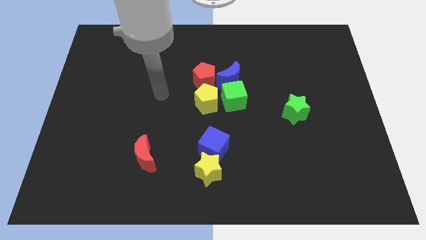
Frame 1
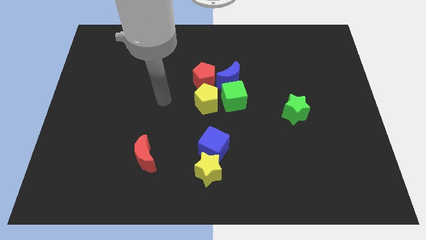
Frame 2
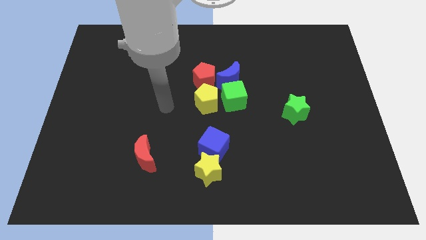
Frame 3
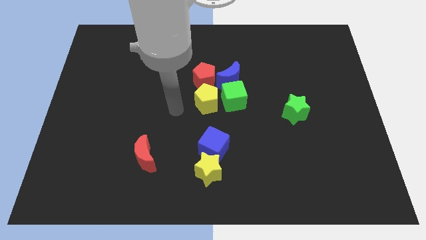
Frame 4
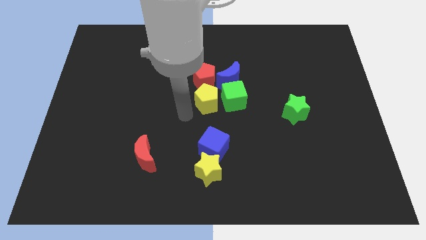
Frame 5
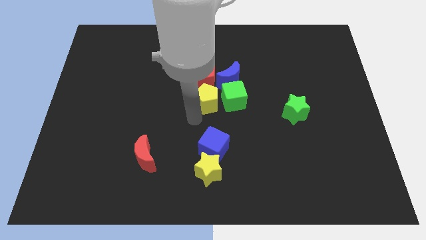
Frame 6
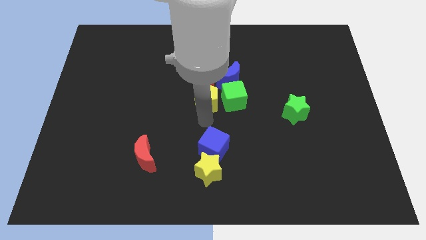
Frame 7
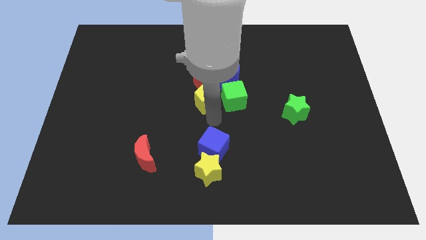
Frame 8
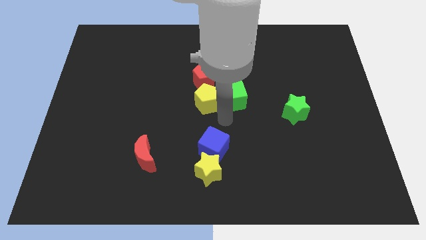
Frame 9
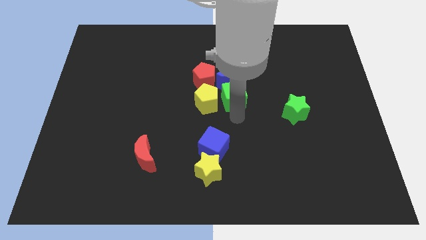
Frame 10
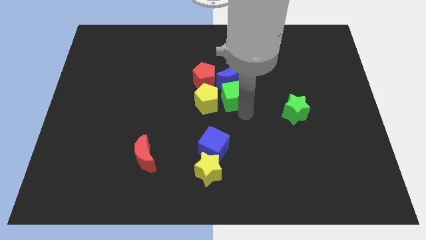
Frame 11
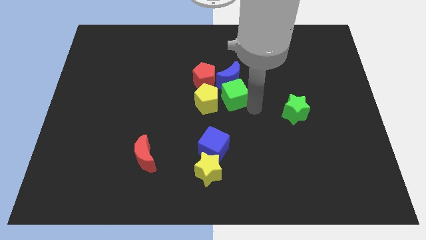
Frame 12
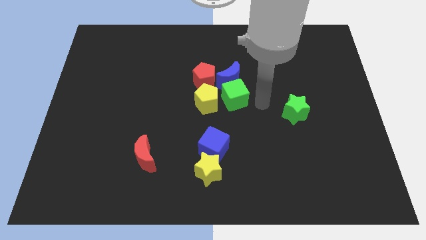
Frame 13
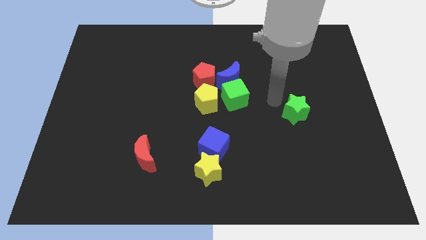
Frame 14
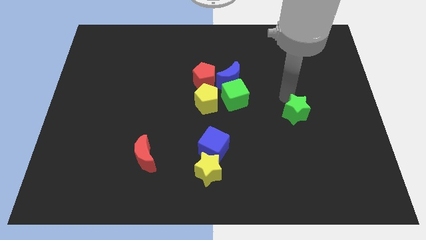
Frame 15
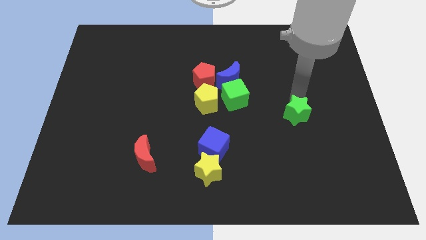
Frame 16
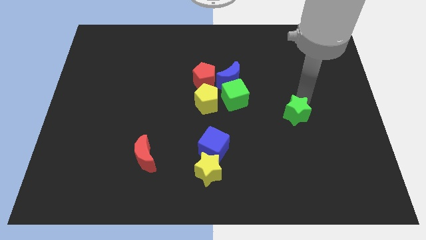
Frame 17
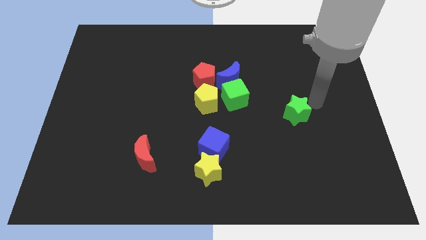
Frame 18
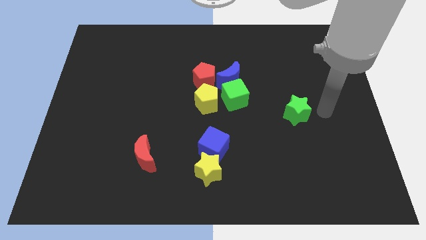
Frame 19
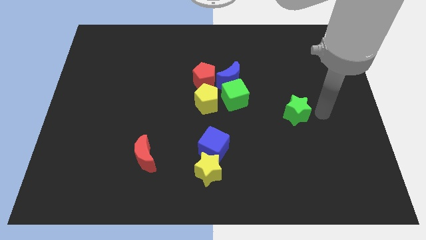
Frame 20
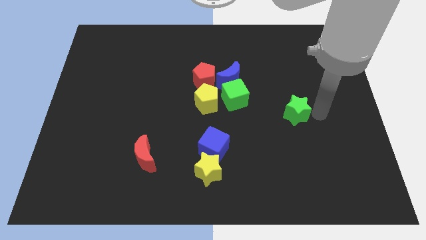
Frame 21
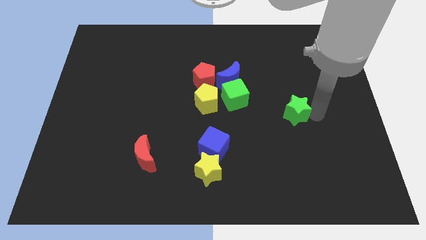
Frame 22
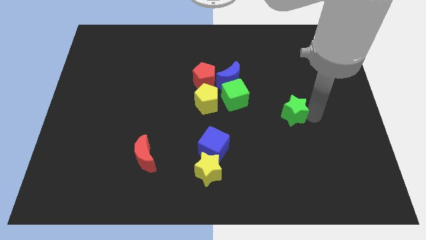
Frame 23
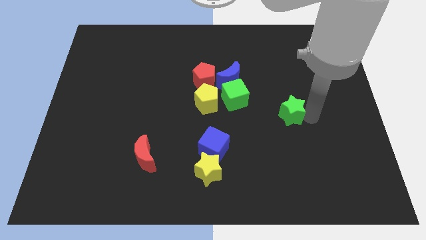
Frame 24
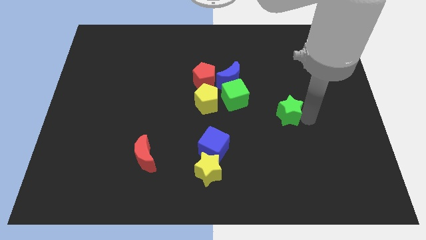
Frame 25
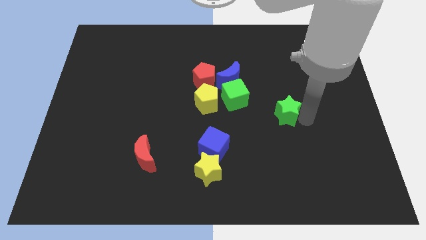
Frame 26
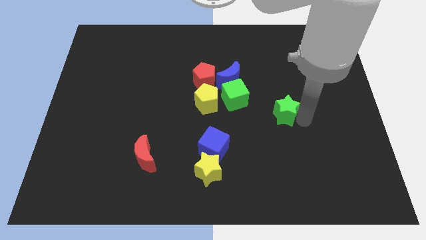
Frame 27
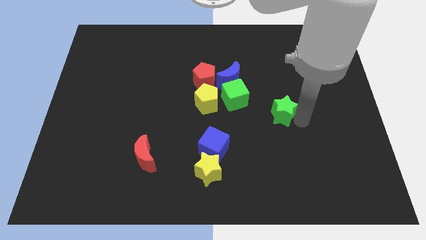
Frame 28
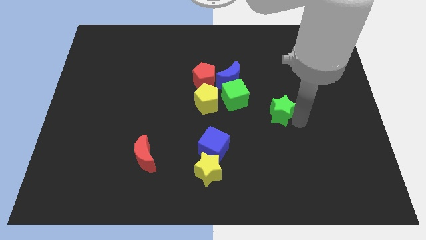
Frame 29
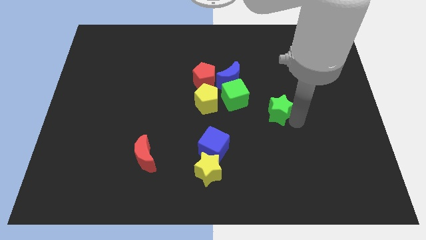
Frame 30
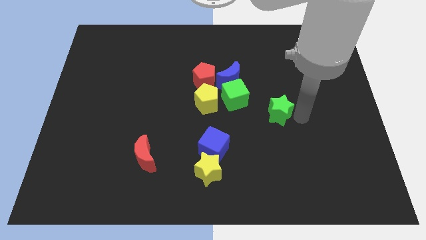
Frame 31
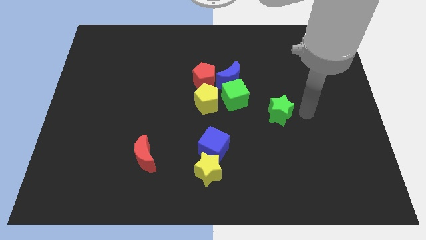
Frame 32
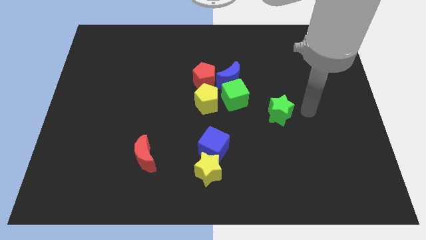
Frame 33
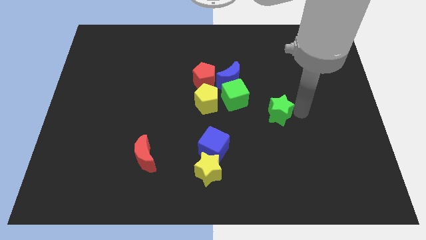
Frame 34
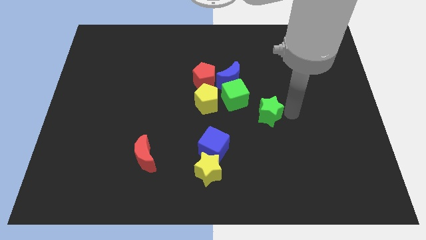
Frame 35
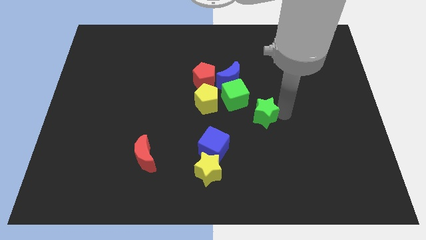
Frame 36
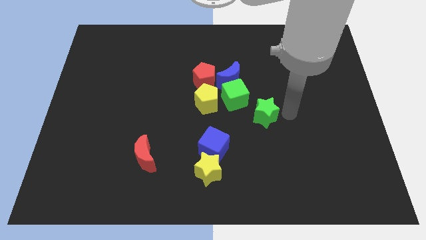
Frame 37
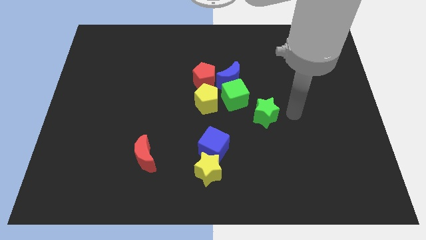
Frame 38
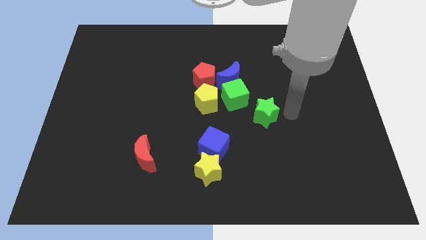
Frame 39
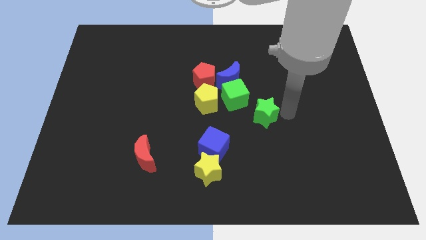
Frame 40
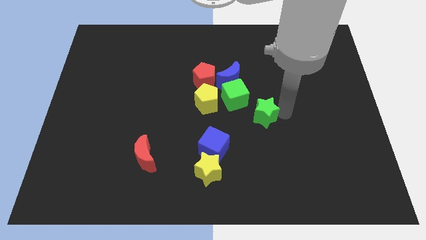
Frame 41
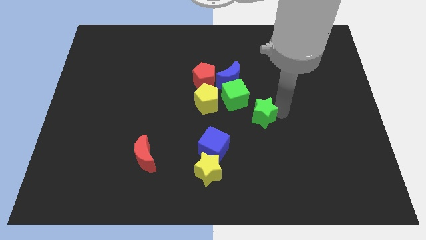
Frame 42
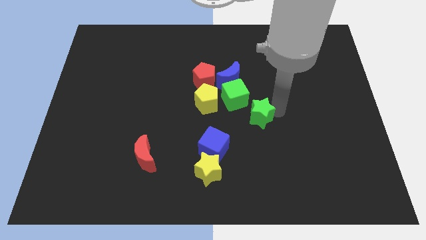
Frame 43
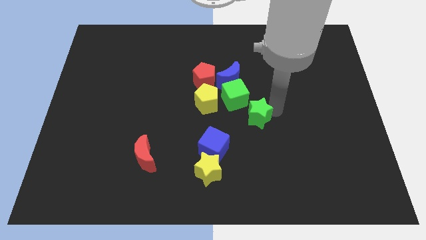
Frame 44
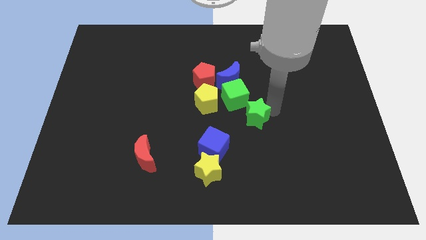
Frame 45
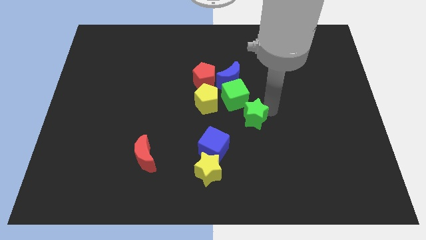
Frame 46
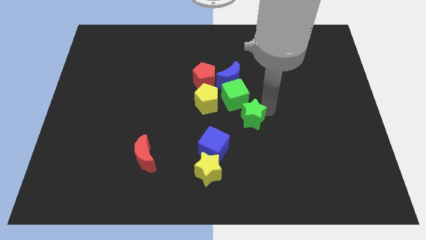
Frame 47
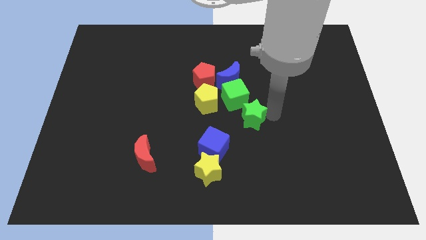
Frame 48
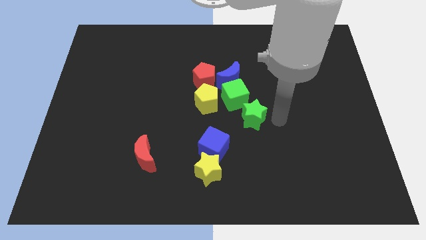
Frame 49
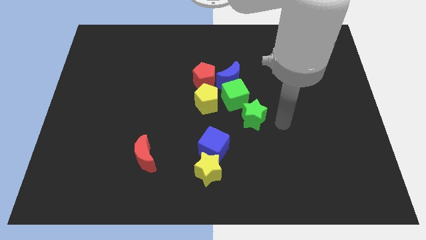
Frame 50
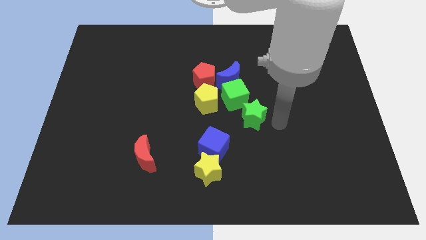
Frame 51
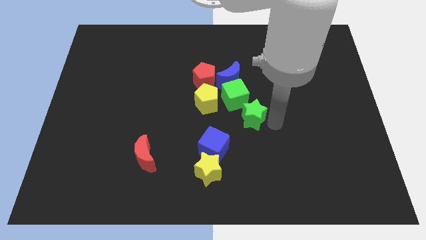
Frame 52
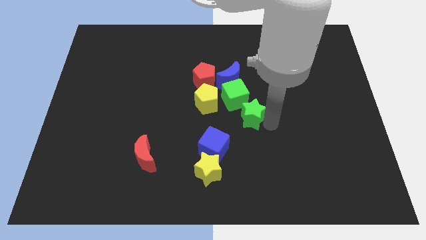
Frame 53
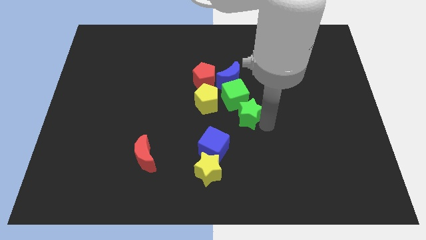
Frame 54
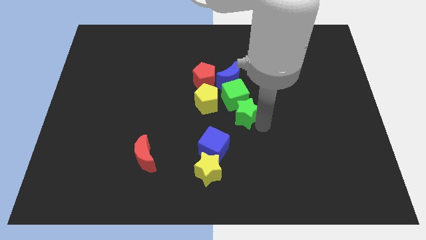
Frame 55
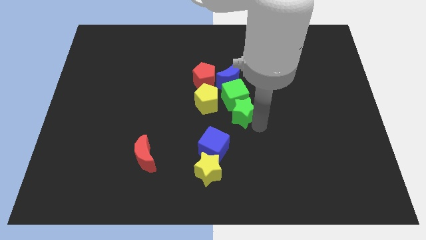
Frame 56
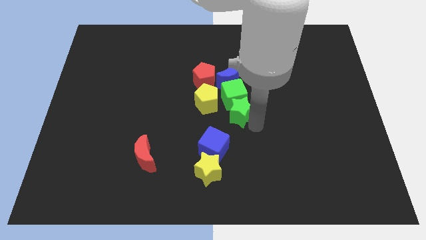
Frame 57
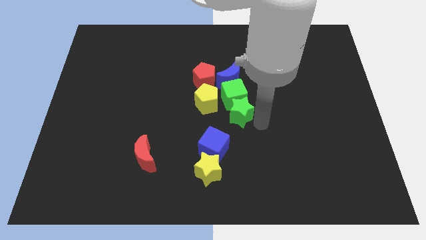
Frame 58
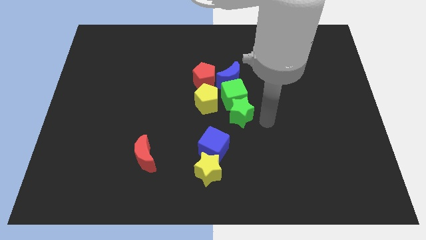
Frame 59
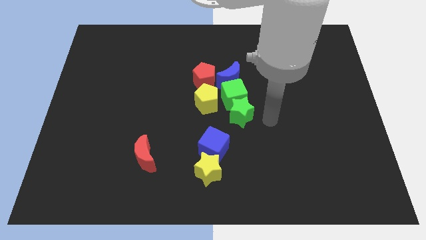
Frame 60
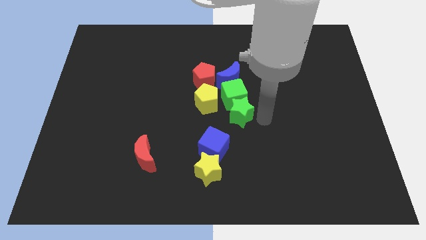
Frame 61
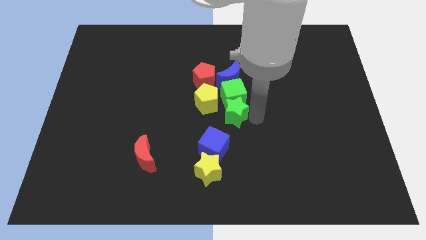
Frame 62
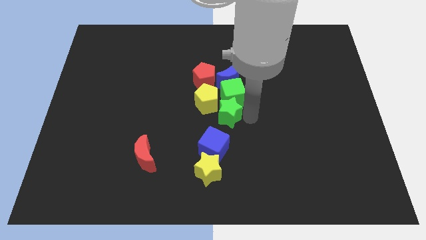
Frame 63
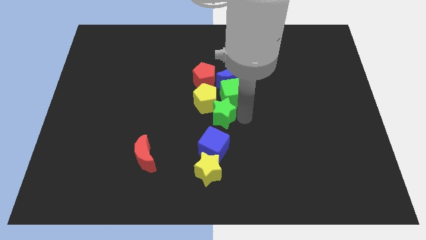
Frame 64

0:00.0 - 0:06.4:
push the green star towards the yellow pentagon

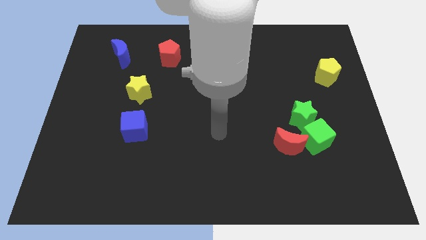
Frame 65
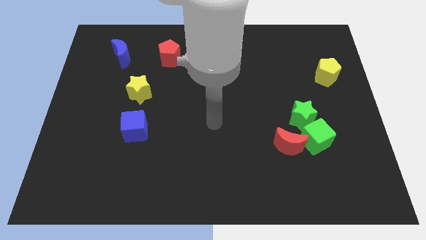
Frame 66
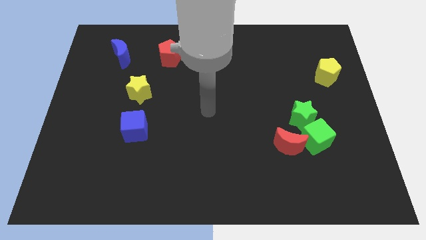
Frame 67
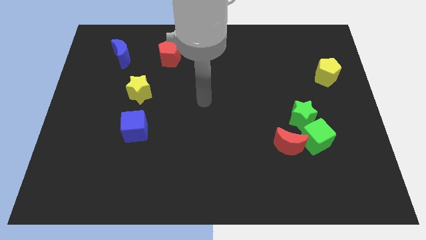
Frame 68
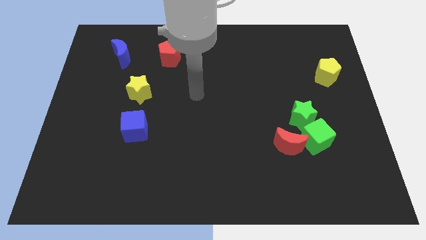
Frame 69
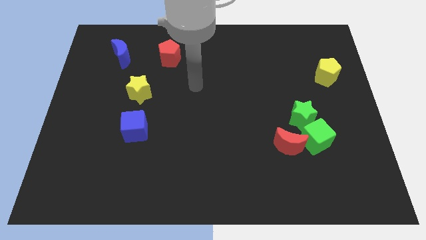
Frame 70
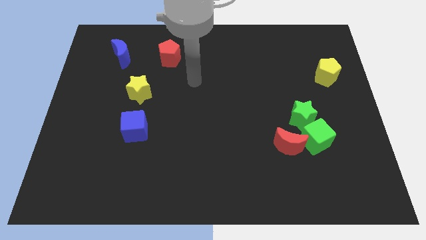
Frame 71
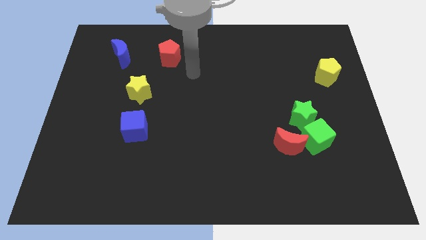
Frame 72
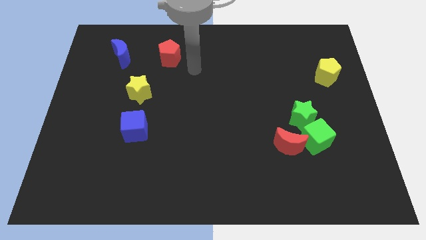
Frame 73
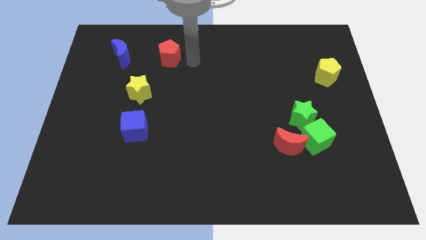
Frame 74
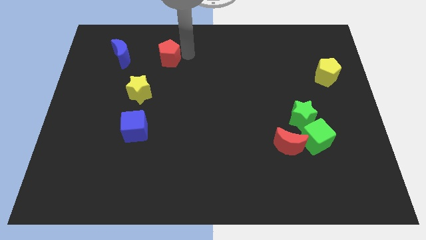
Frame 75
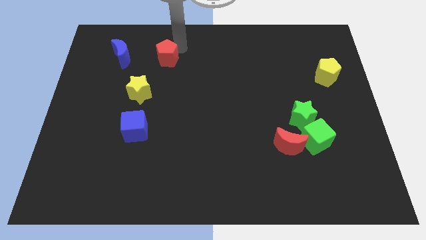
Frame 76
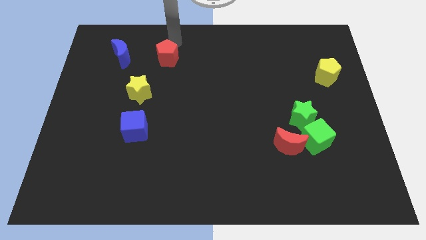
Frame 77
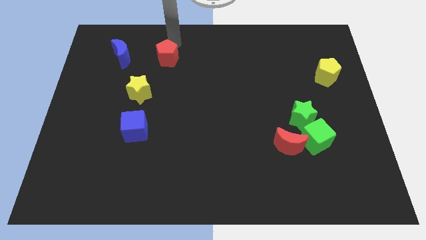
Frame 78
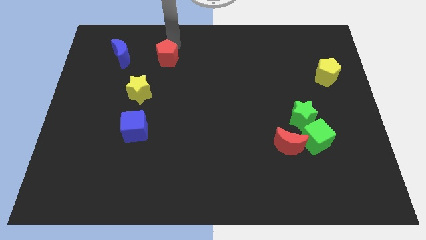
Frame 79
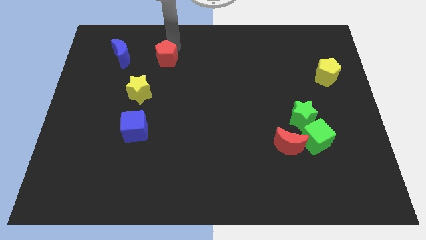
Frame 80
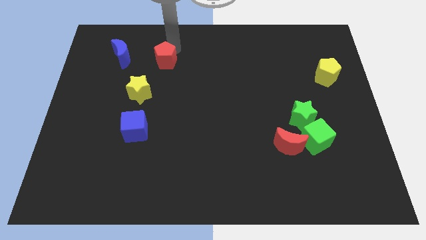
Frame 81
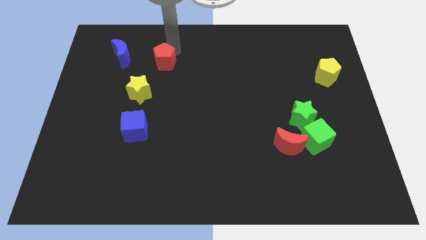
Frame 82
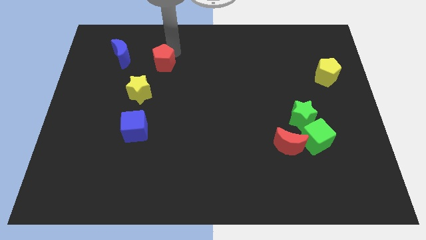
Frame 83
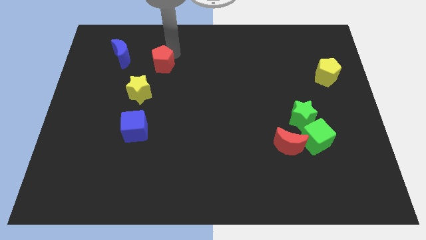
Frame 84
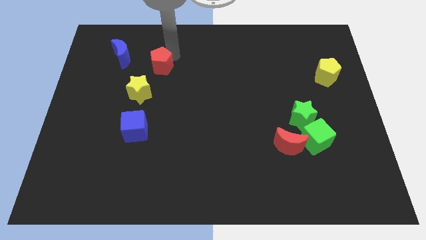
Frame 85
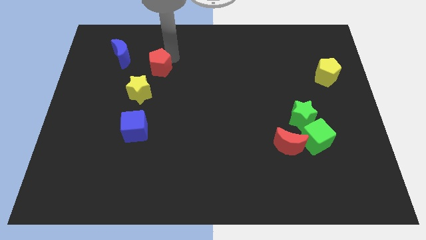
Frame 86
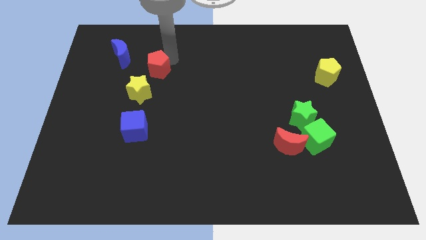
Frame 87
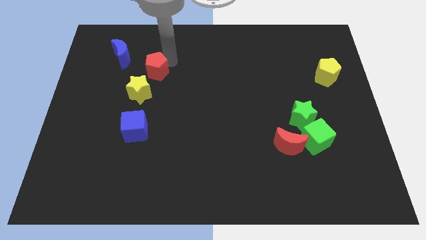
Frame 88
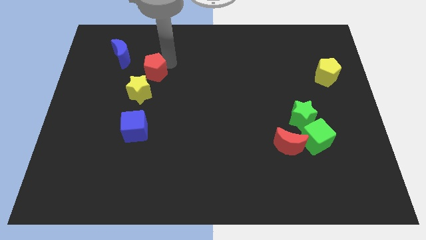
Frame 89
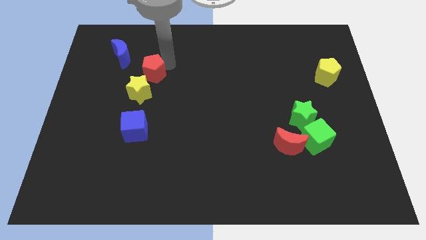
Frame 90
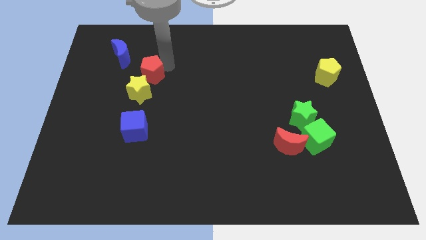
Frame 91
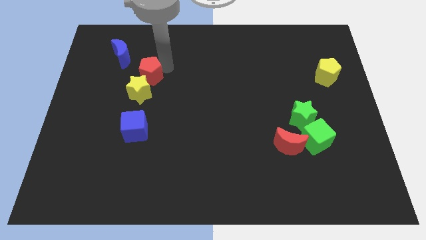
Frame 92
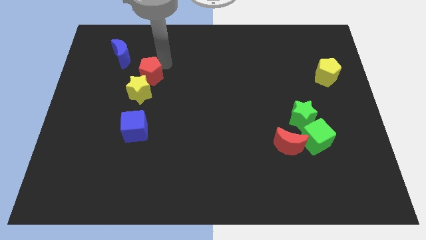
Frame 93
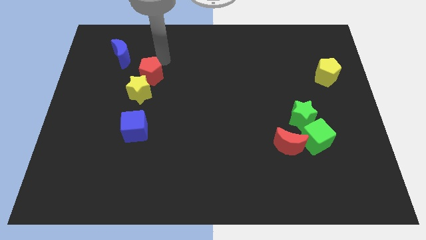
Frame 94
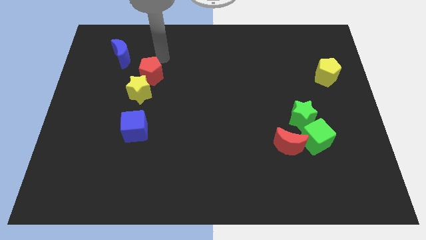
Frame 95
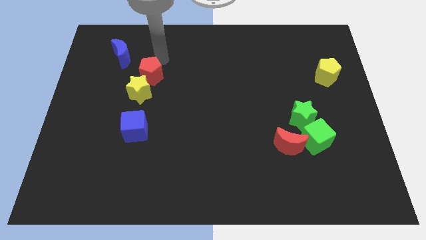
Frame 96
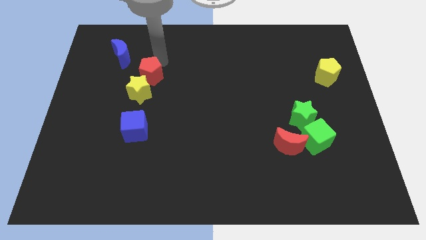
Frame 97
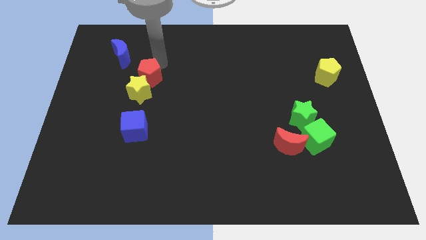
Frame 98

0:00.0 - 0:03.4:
push the red pentagon towards the yellow star
